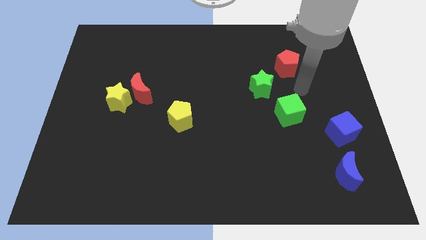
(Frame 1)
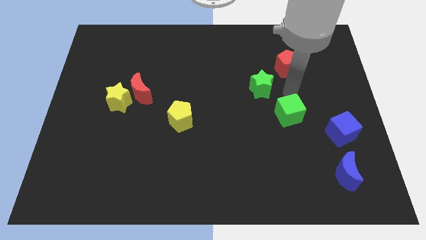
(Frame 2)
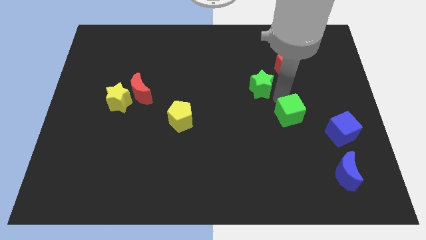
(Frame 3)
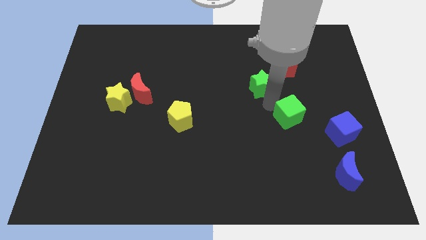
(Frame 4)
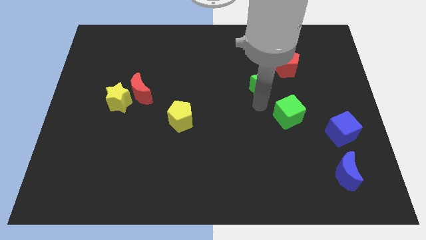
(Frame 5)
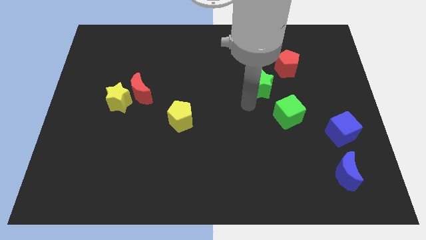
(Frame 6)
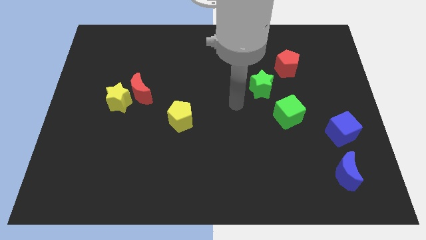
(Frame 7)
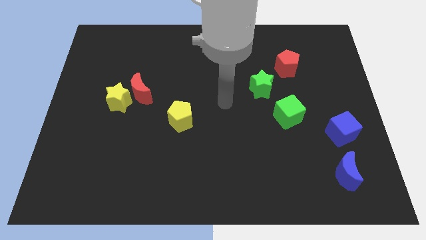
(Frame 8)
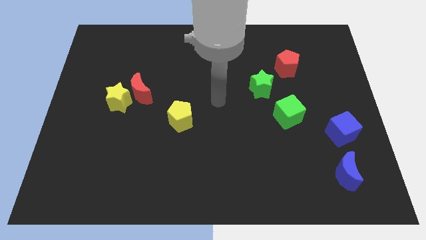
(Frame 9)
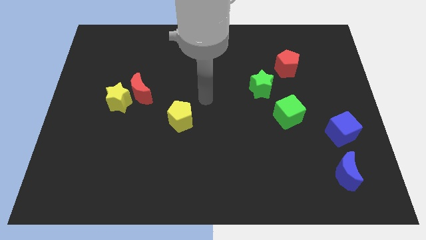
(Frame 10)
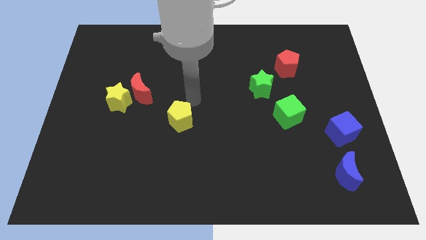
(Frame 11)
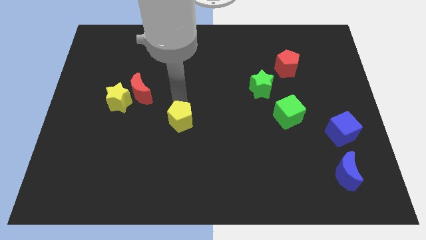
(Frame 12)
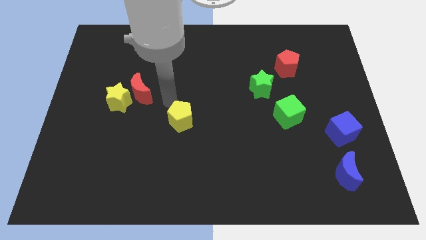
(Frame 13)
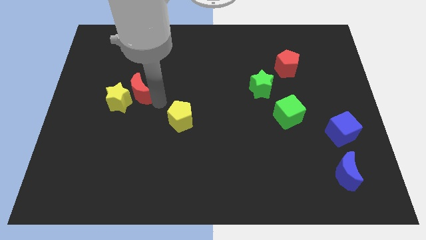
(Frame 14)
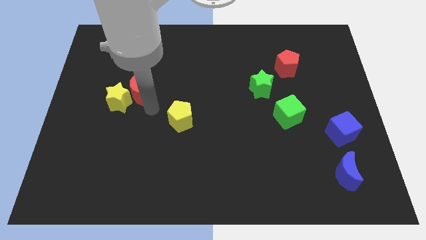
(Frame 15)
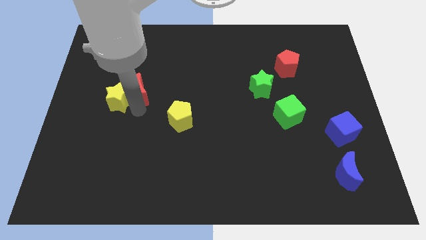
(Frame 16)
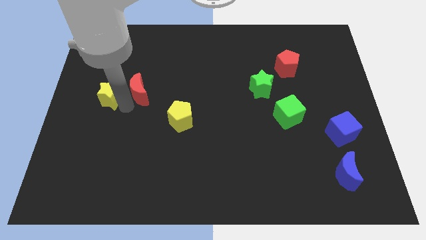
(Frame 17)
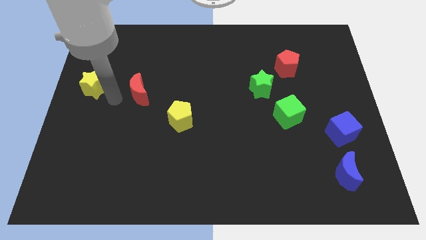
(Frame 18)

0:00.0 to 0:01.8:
pull the red moon apart from the yellow star

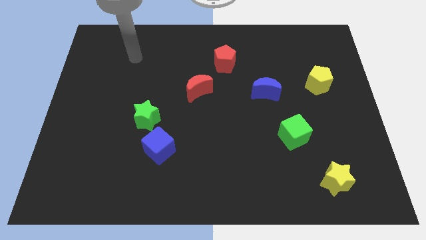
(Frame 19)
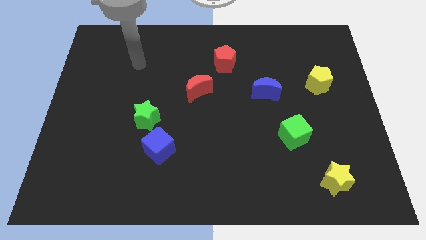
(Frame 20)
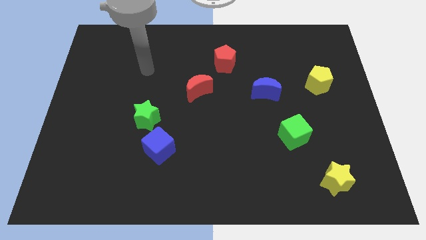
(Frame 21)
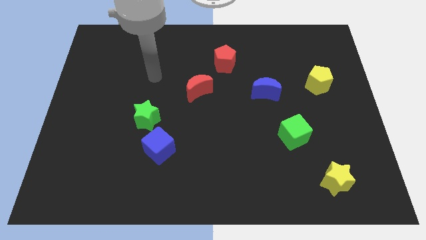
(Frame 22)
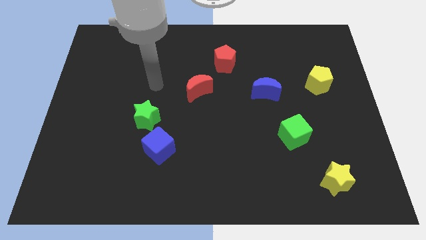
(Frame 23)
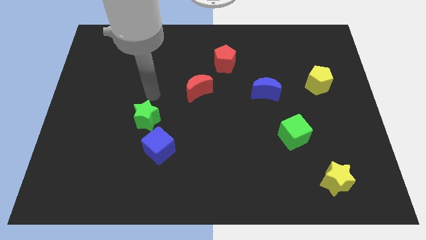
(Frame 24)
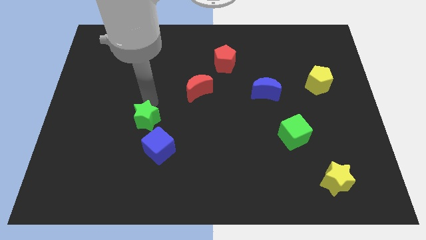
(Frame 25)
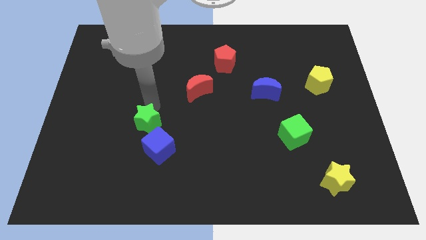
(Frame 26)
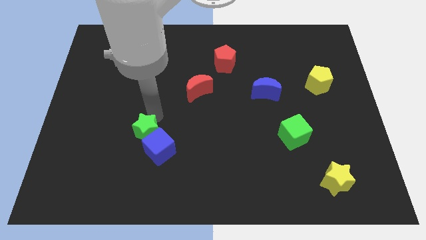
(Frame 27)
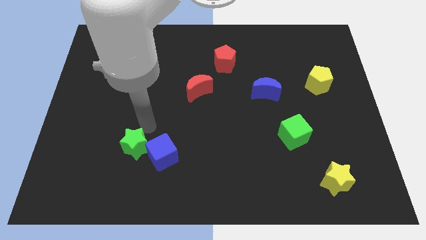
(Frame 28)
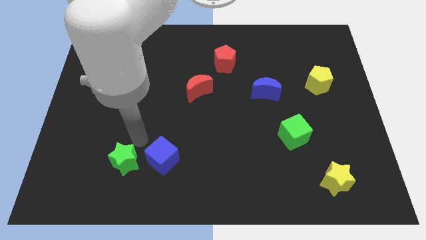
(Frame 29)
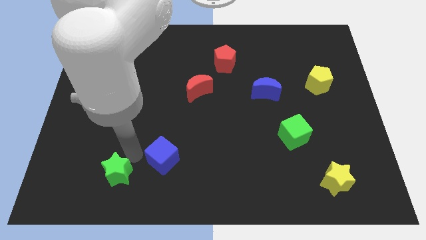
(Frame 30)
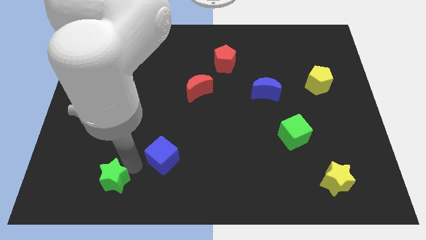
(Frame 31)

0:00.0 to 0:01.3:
pull the blue cube apart from the green star

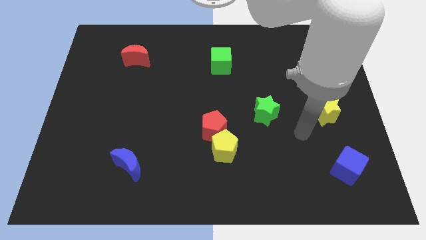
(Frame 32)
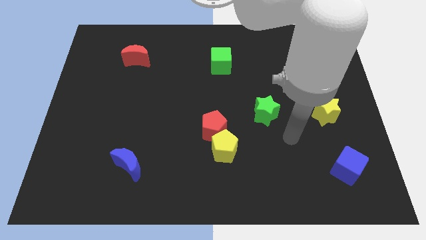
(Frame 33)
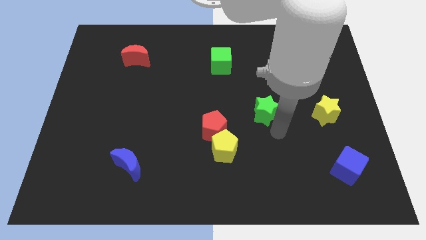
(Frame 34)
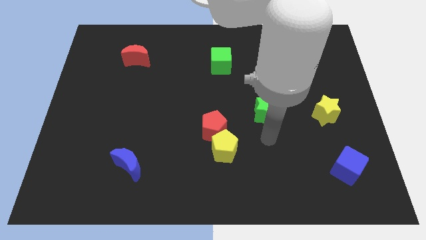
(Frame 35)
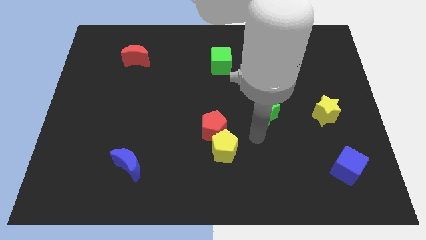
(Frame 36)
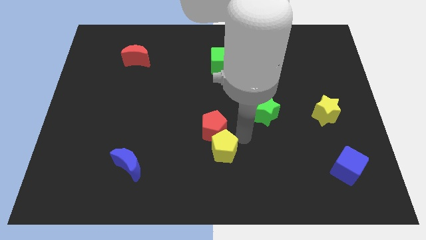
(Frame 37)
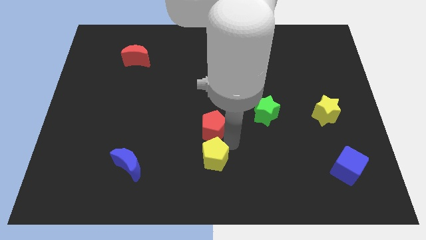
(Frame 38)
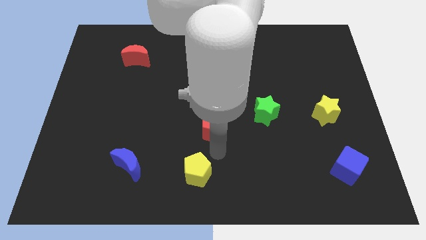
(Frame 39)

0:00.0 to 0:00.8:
move the red pentagon away from the yellow pentagon

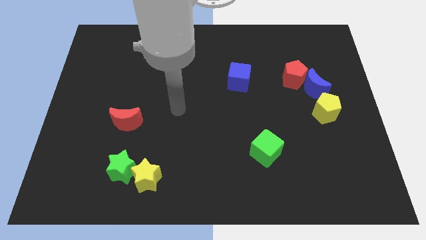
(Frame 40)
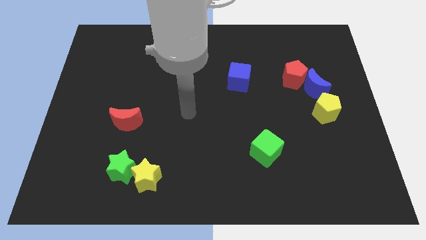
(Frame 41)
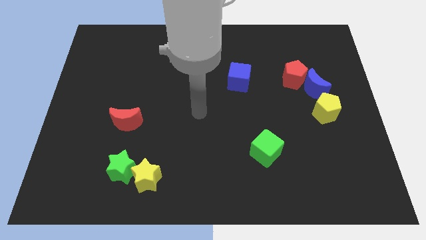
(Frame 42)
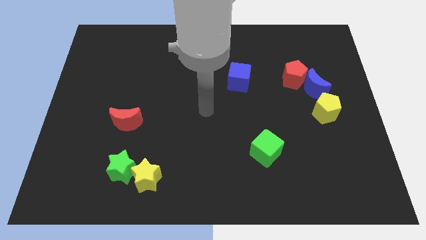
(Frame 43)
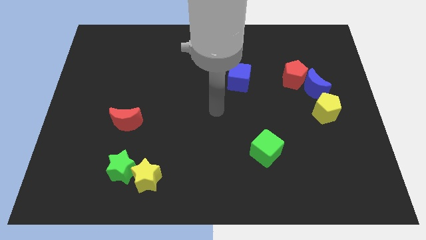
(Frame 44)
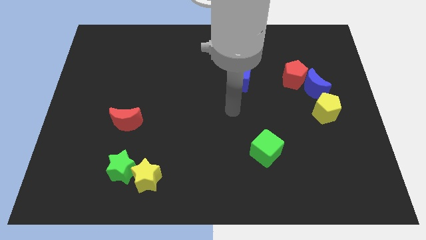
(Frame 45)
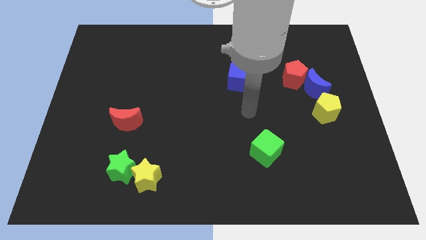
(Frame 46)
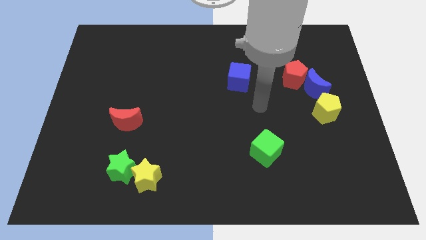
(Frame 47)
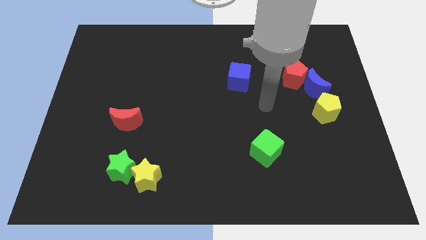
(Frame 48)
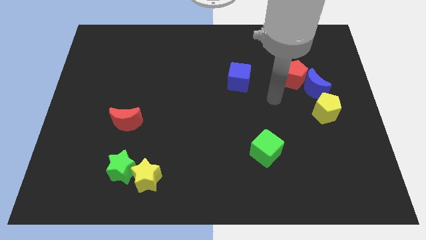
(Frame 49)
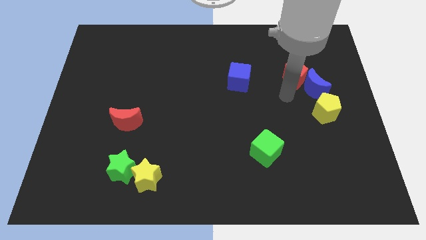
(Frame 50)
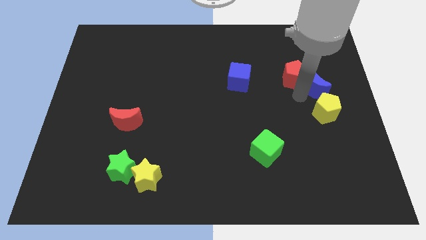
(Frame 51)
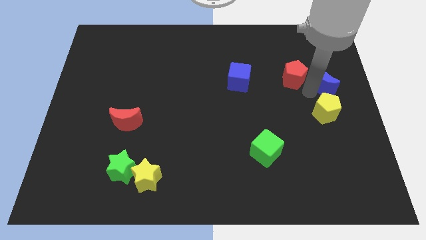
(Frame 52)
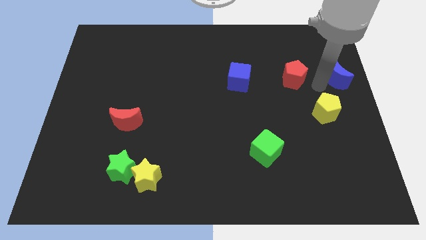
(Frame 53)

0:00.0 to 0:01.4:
separate the red pentagon from the blue moon

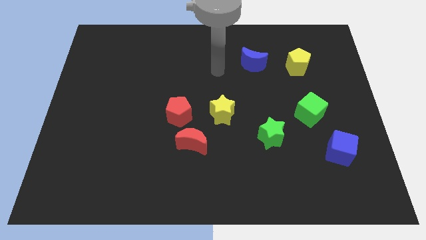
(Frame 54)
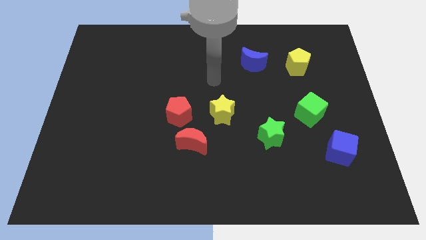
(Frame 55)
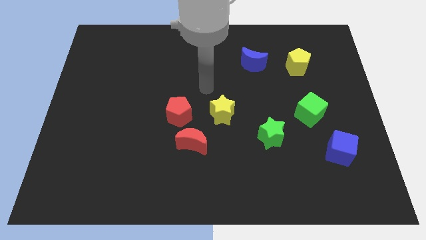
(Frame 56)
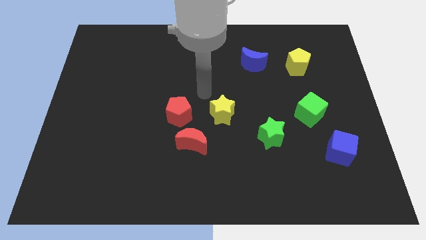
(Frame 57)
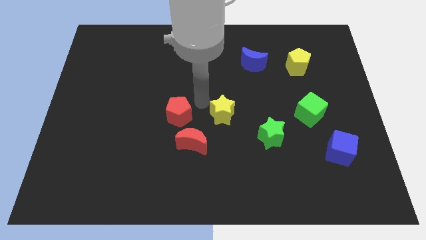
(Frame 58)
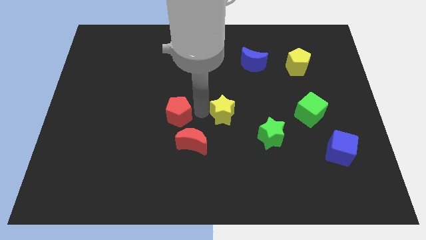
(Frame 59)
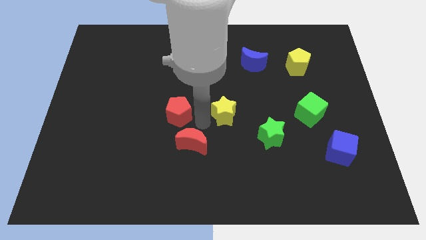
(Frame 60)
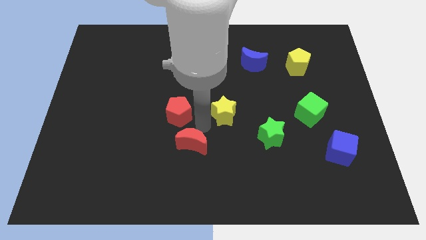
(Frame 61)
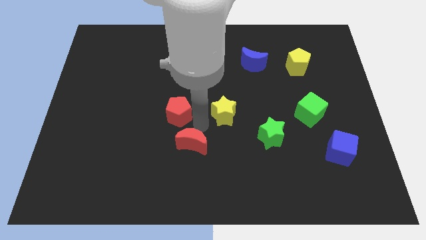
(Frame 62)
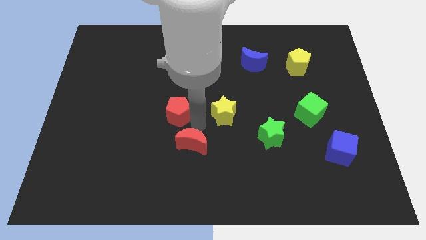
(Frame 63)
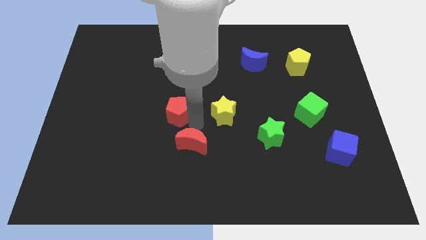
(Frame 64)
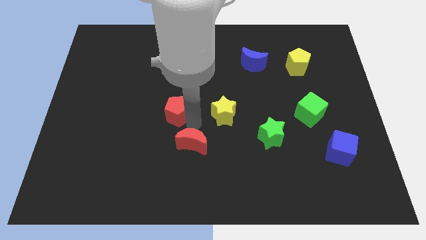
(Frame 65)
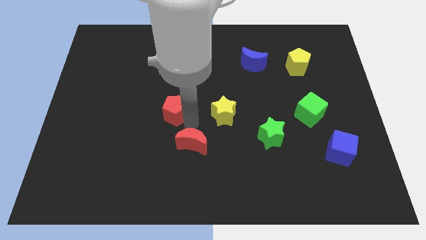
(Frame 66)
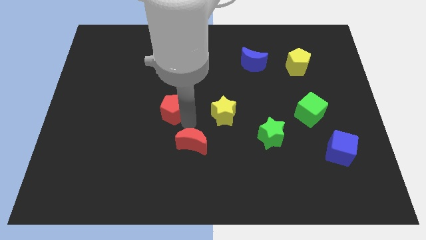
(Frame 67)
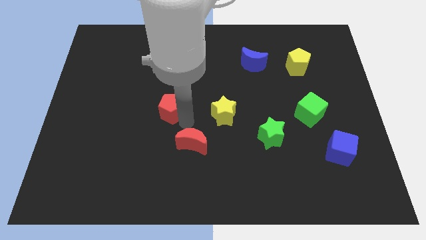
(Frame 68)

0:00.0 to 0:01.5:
pull the red pentagon apart from the red moon and yellow star

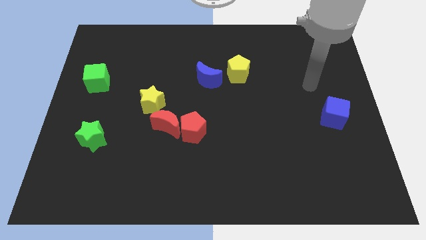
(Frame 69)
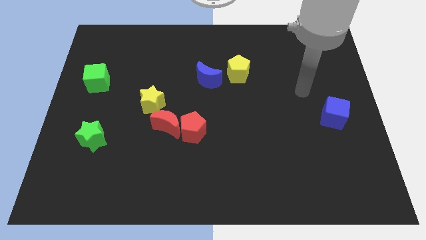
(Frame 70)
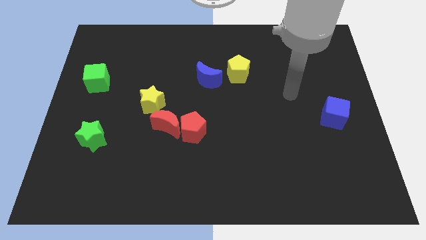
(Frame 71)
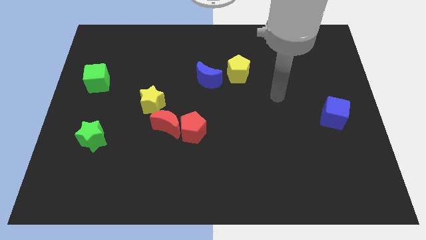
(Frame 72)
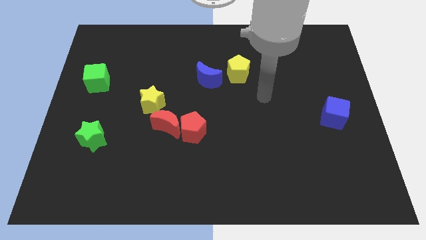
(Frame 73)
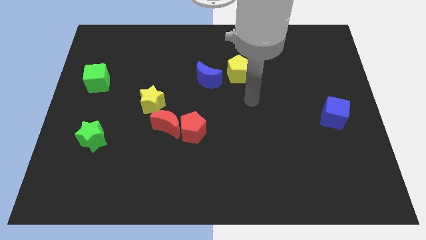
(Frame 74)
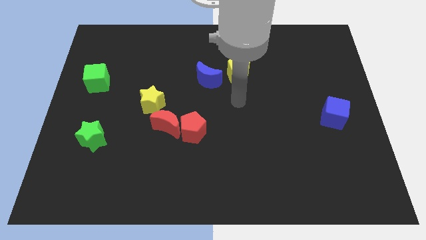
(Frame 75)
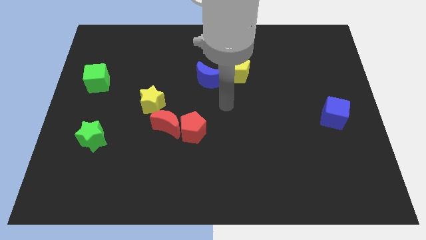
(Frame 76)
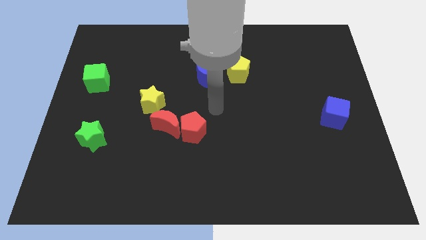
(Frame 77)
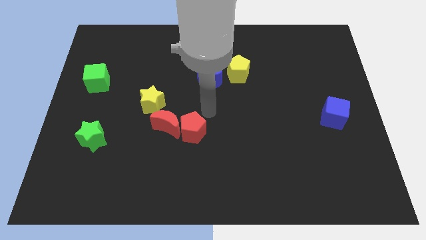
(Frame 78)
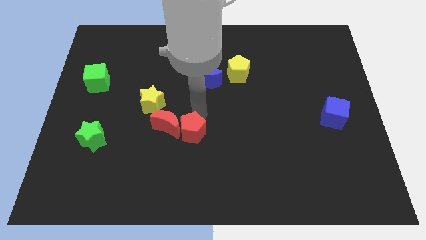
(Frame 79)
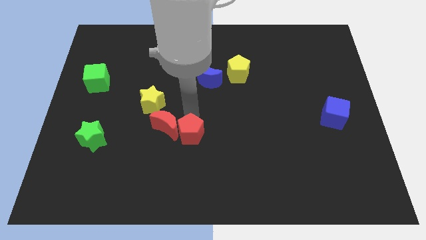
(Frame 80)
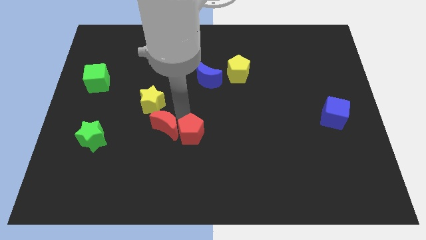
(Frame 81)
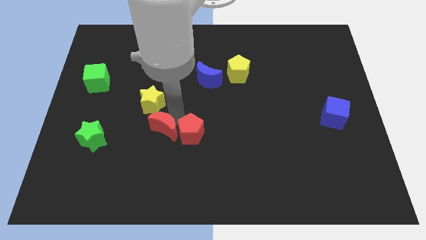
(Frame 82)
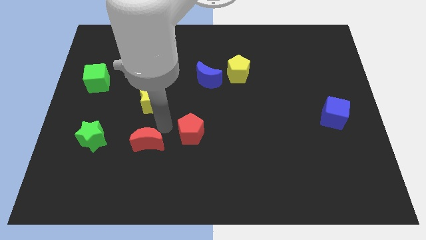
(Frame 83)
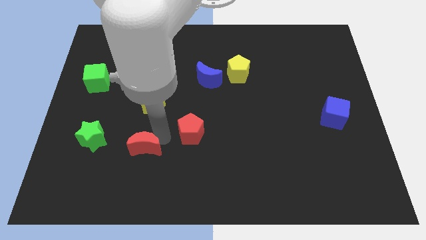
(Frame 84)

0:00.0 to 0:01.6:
separate the red pentagon from the red moon

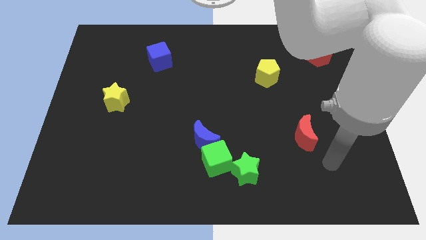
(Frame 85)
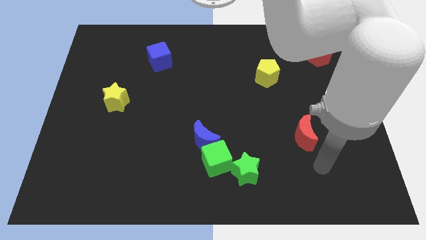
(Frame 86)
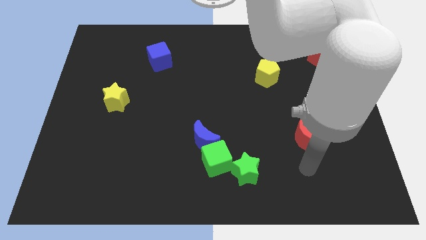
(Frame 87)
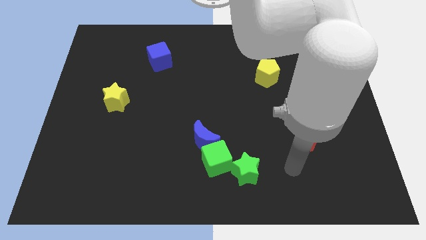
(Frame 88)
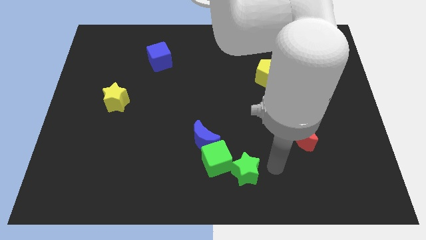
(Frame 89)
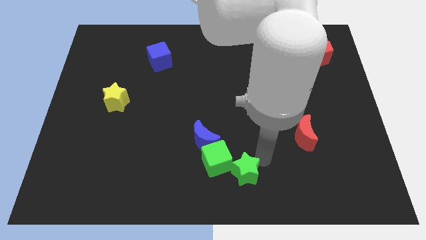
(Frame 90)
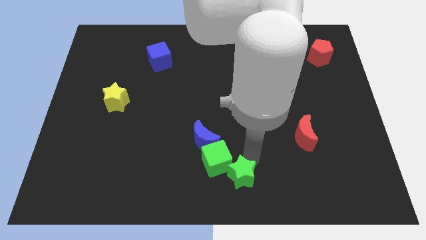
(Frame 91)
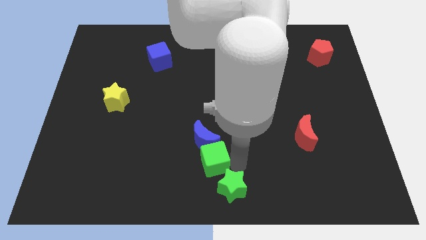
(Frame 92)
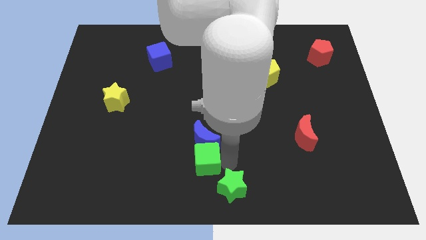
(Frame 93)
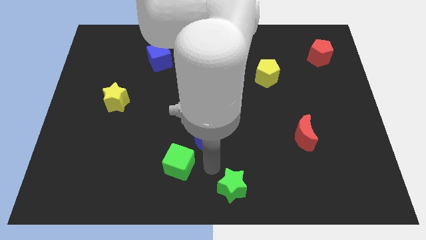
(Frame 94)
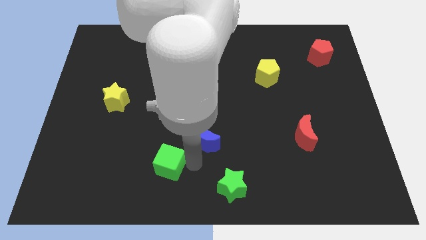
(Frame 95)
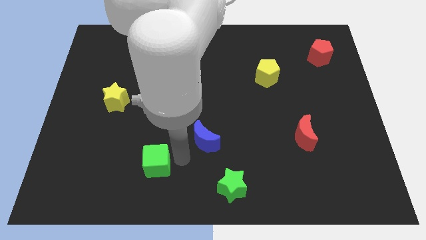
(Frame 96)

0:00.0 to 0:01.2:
move the blue moon away from the green cube
